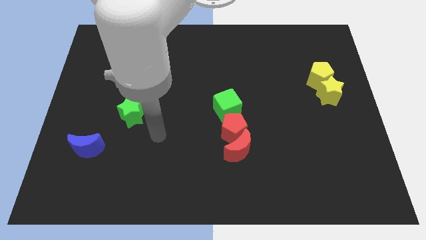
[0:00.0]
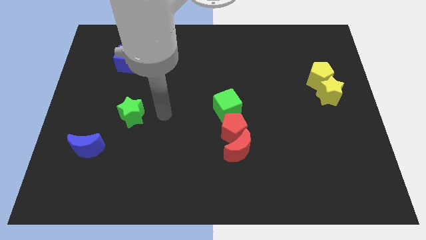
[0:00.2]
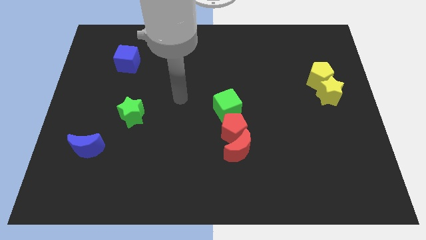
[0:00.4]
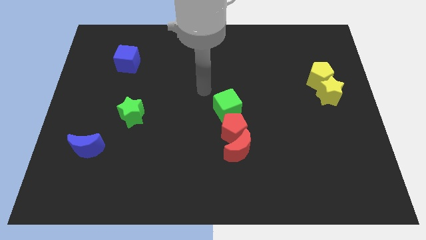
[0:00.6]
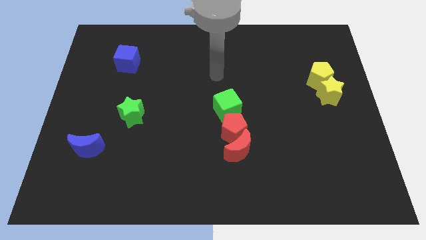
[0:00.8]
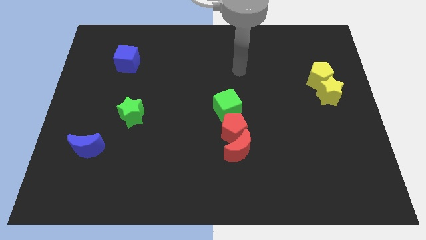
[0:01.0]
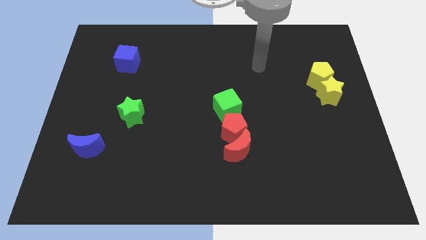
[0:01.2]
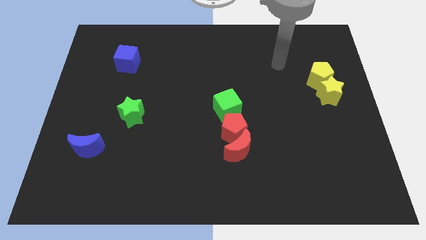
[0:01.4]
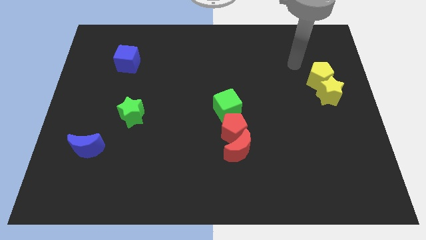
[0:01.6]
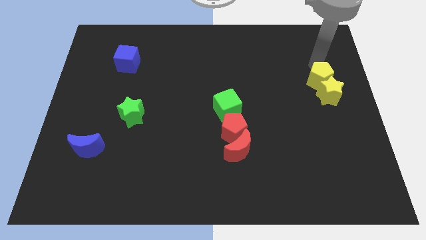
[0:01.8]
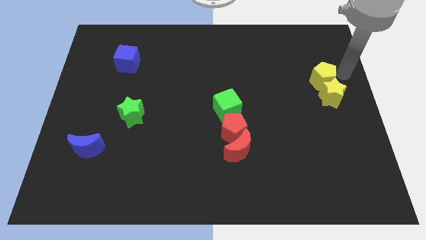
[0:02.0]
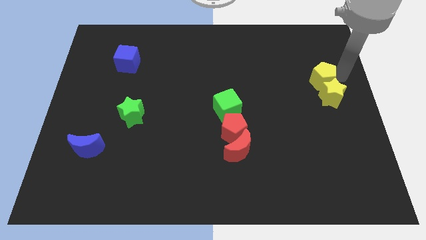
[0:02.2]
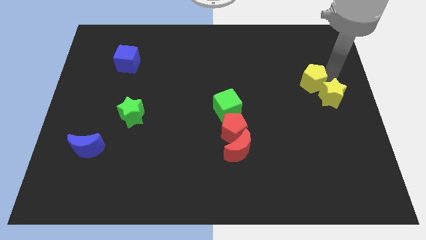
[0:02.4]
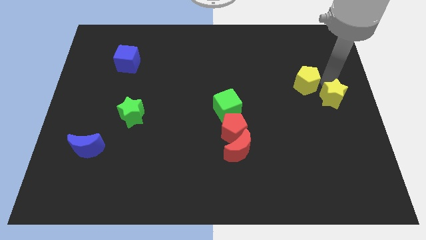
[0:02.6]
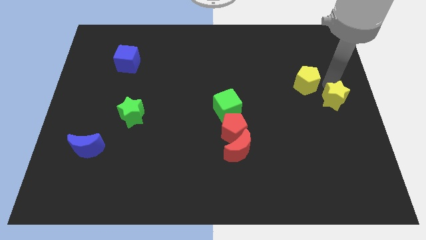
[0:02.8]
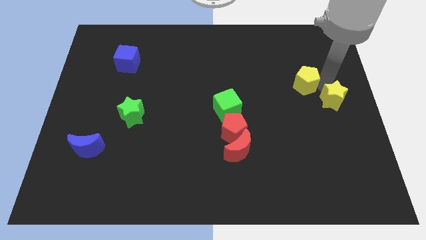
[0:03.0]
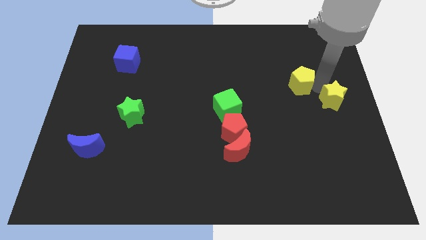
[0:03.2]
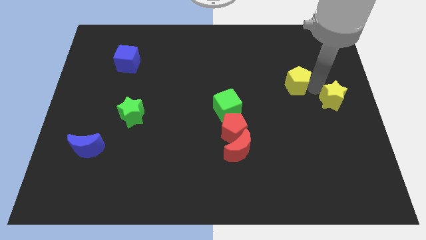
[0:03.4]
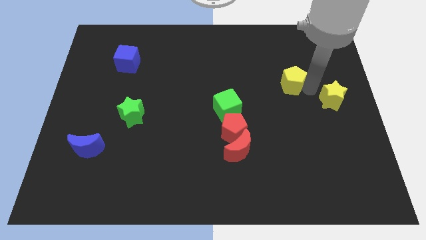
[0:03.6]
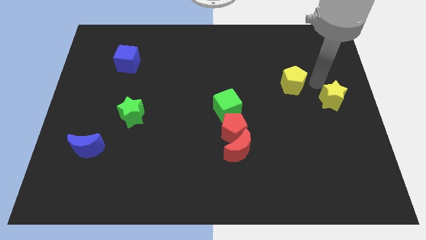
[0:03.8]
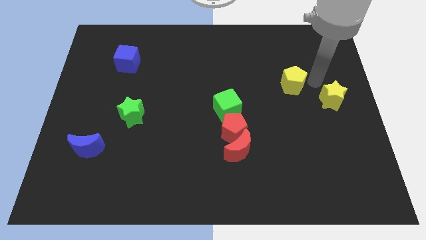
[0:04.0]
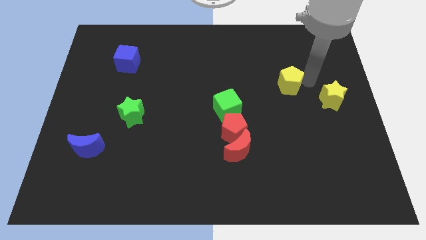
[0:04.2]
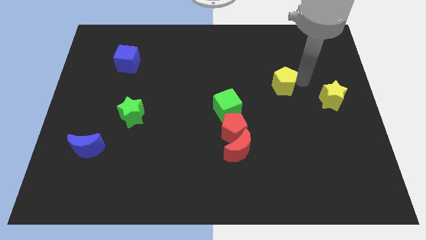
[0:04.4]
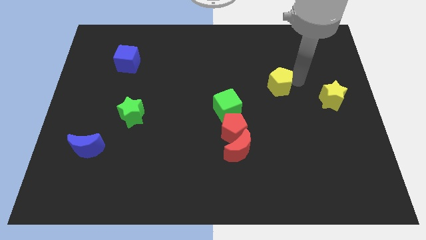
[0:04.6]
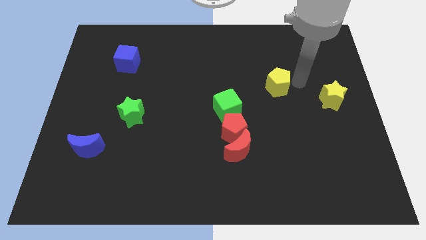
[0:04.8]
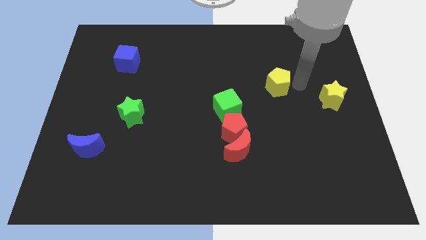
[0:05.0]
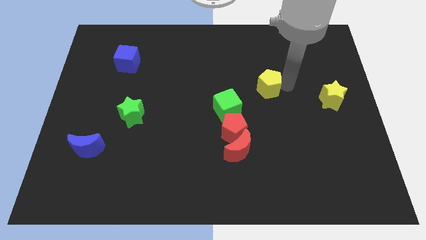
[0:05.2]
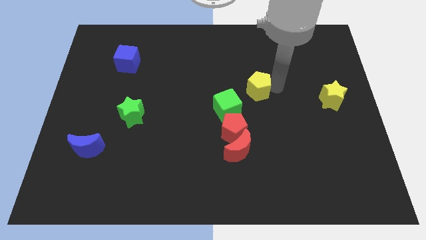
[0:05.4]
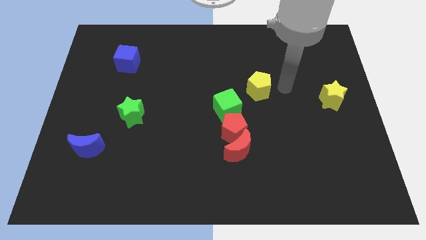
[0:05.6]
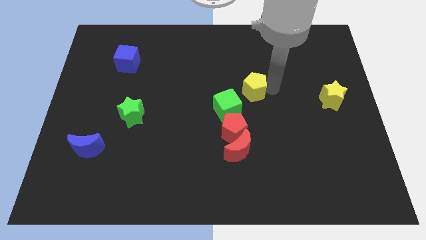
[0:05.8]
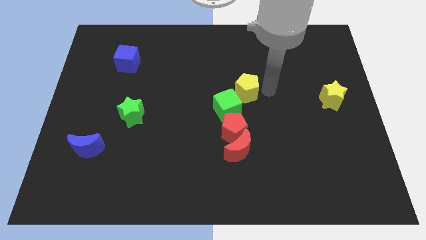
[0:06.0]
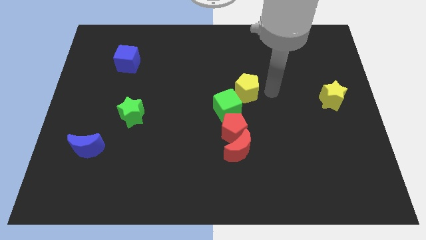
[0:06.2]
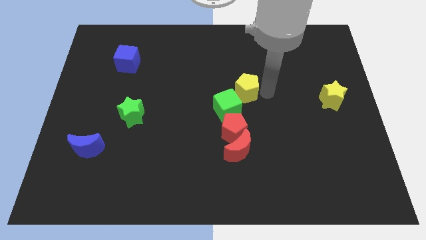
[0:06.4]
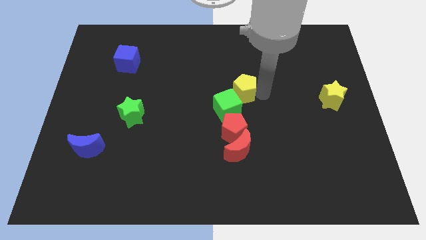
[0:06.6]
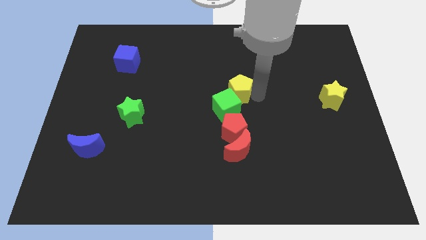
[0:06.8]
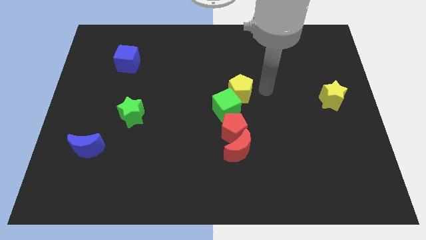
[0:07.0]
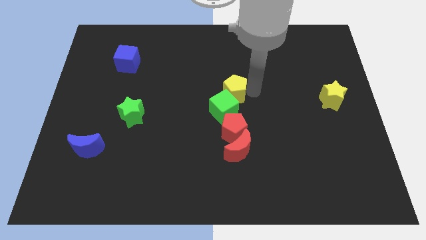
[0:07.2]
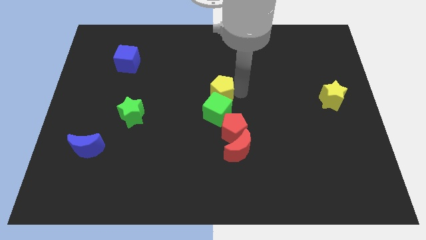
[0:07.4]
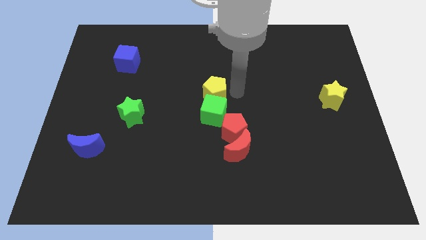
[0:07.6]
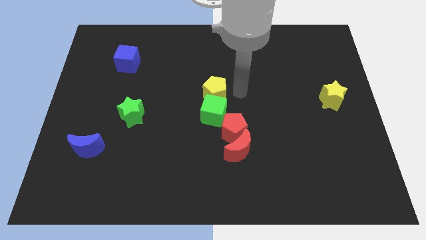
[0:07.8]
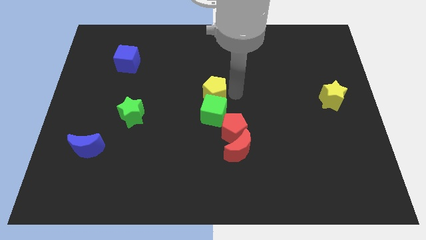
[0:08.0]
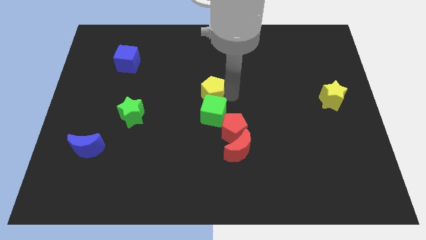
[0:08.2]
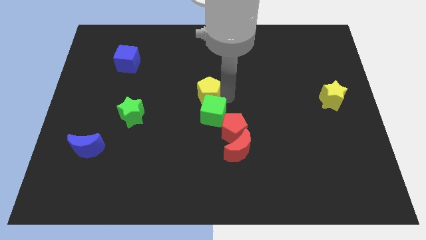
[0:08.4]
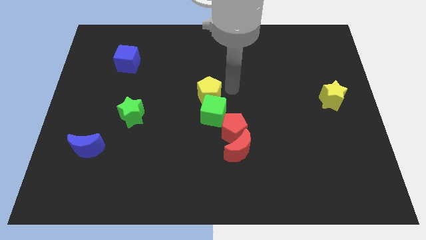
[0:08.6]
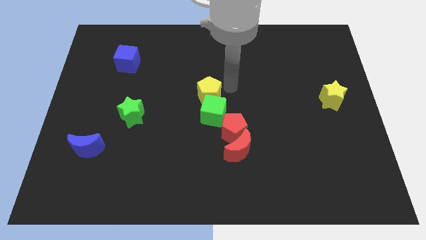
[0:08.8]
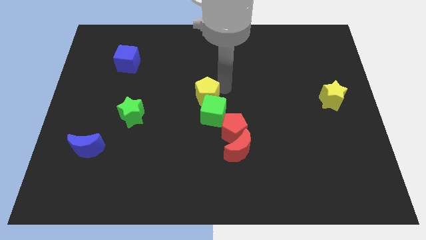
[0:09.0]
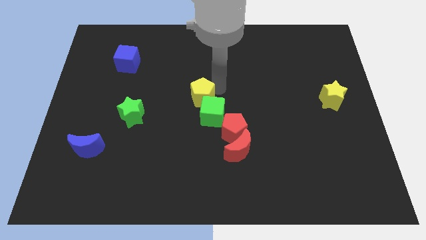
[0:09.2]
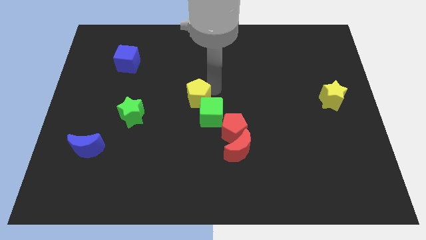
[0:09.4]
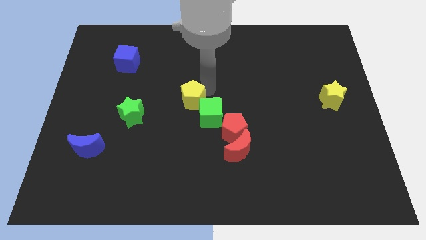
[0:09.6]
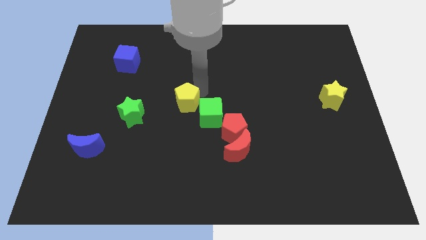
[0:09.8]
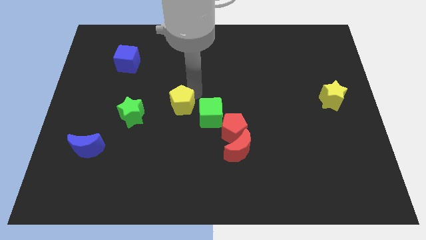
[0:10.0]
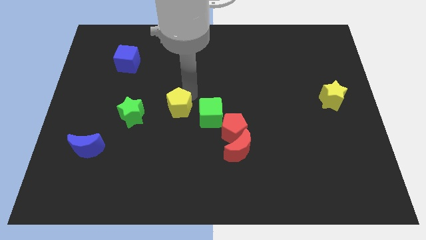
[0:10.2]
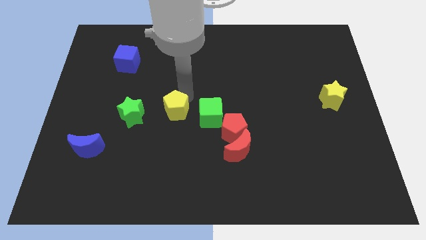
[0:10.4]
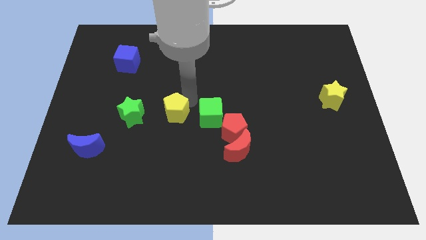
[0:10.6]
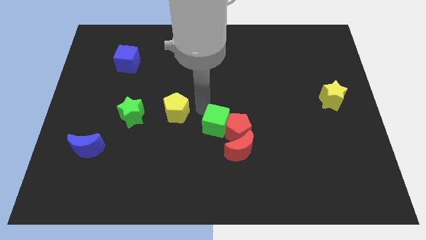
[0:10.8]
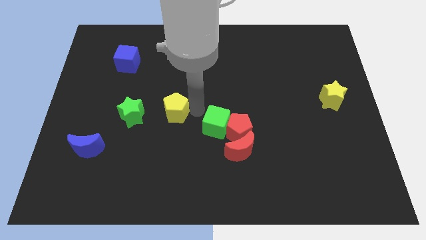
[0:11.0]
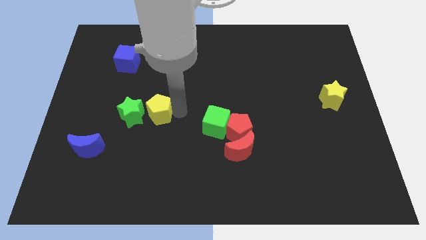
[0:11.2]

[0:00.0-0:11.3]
put the yellow pentagon towards the green star

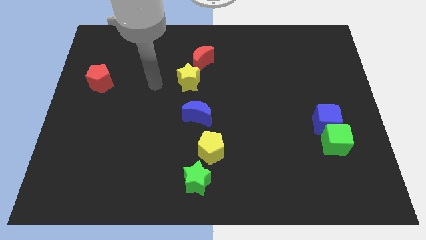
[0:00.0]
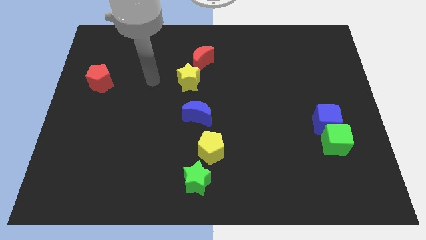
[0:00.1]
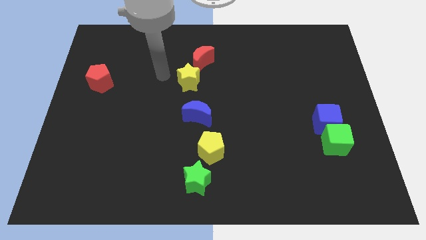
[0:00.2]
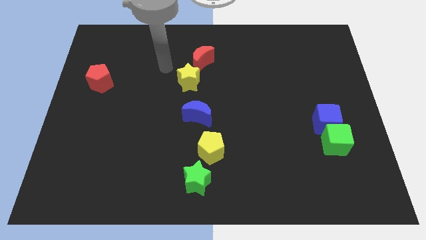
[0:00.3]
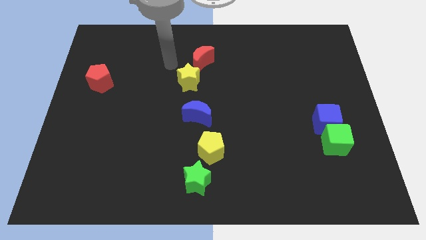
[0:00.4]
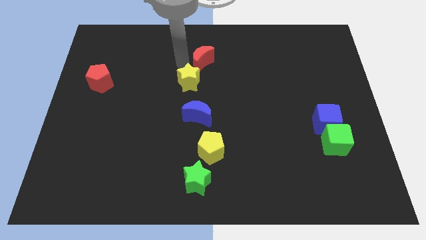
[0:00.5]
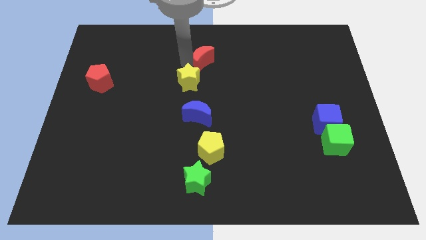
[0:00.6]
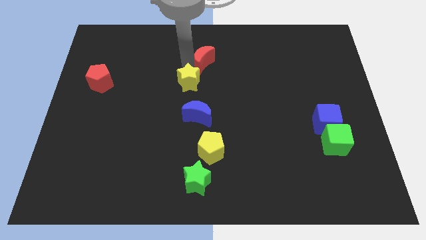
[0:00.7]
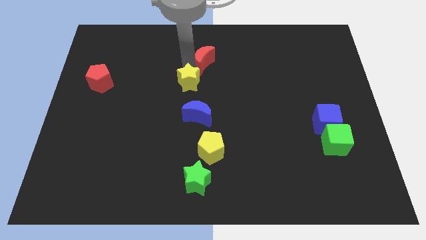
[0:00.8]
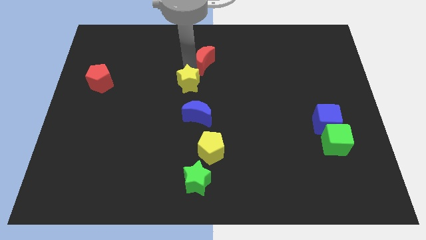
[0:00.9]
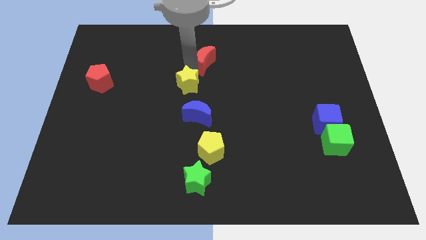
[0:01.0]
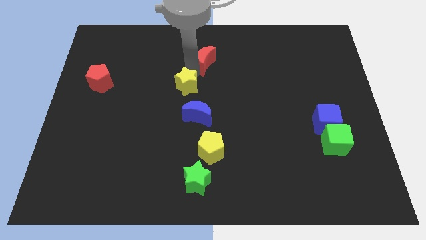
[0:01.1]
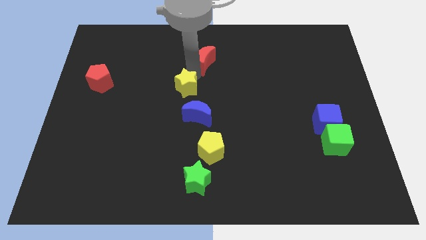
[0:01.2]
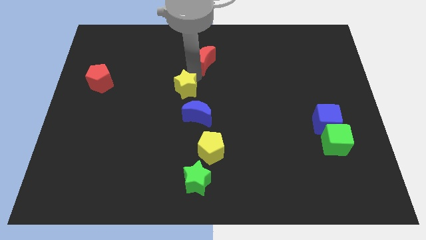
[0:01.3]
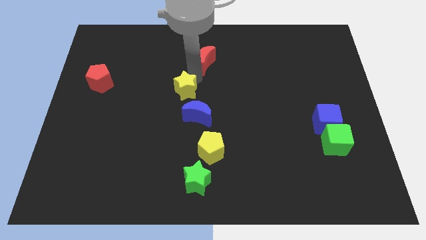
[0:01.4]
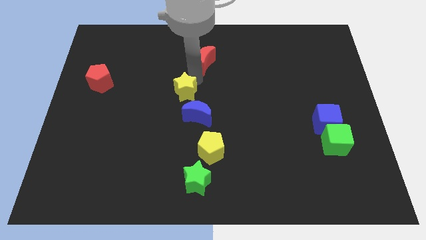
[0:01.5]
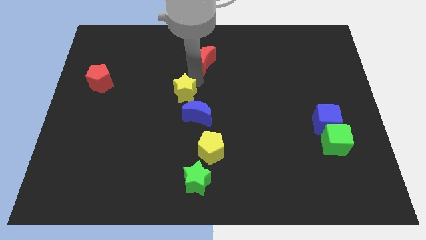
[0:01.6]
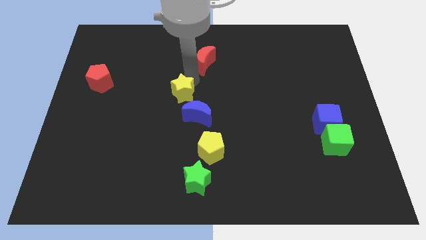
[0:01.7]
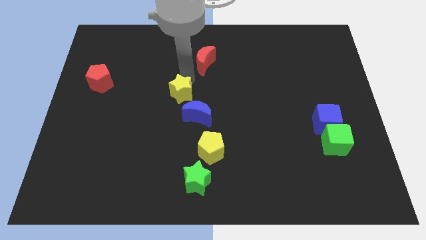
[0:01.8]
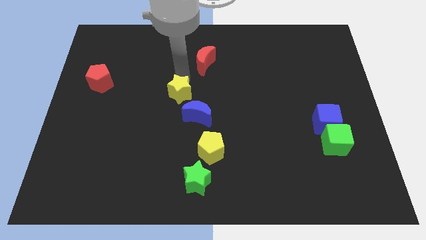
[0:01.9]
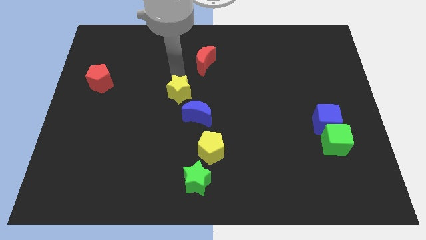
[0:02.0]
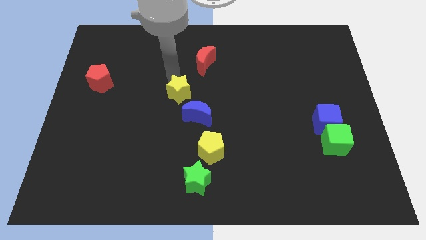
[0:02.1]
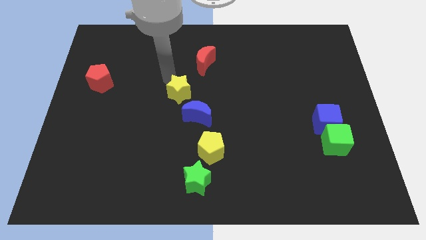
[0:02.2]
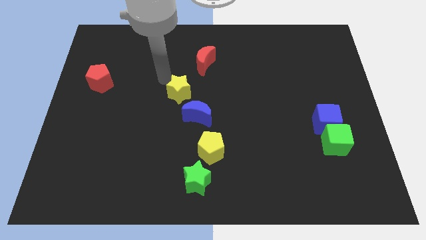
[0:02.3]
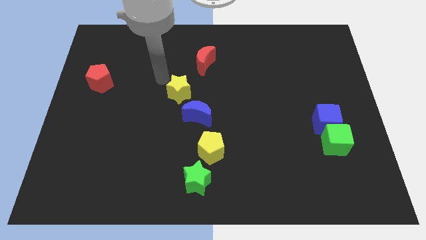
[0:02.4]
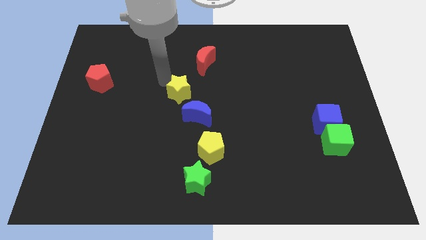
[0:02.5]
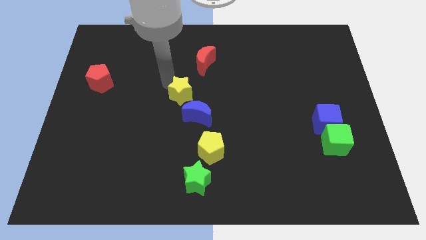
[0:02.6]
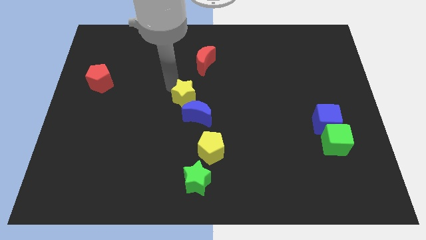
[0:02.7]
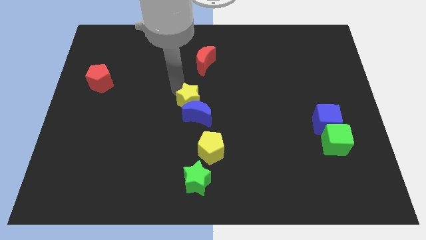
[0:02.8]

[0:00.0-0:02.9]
push the yellow star close to the blue moon
